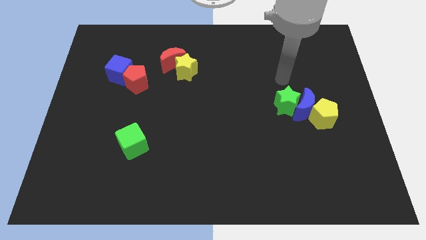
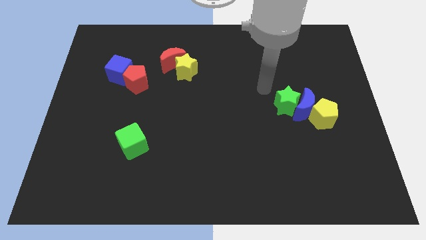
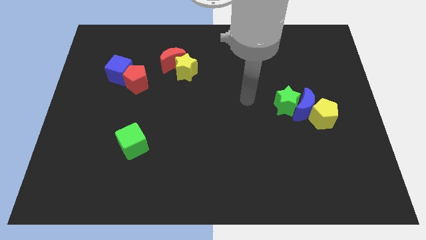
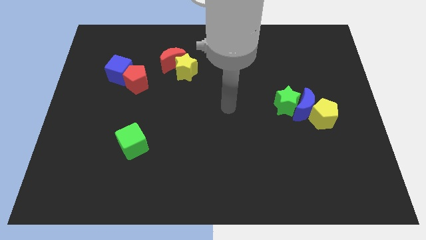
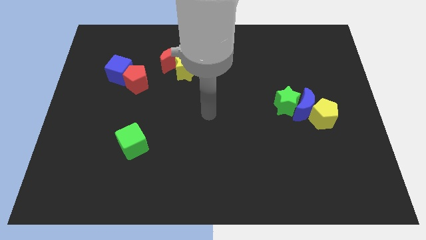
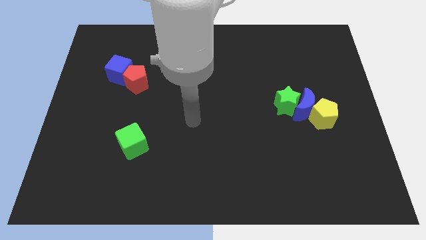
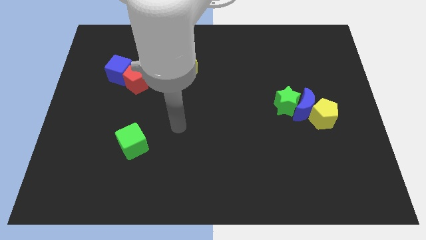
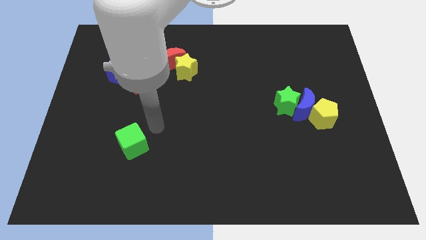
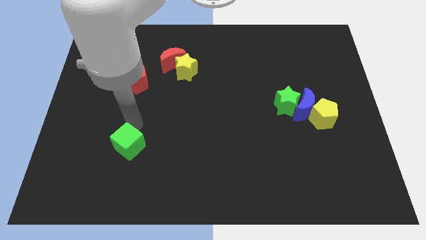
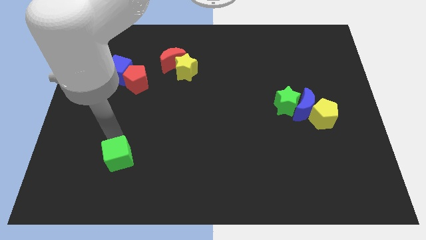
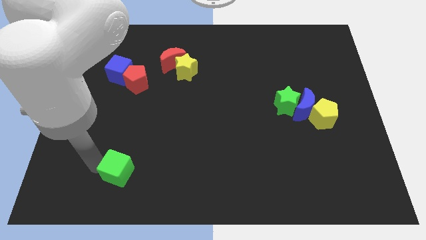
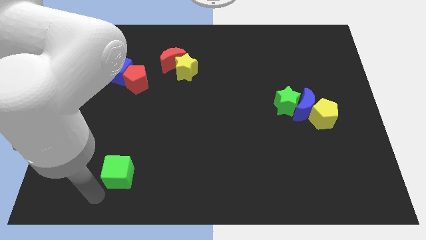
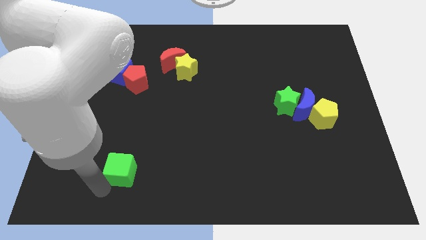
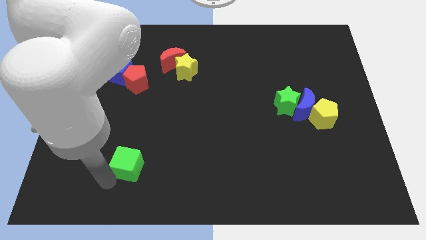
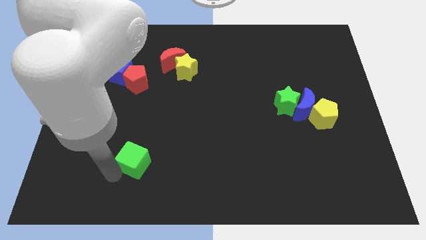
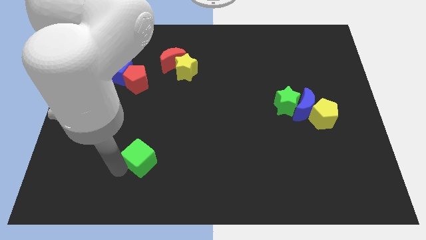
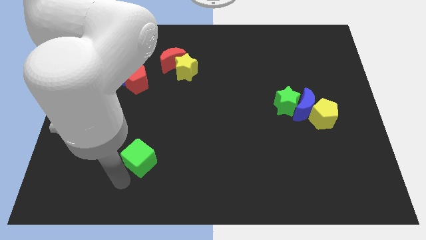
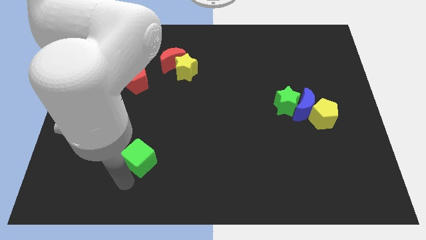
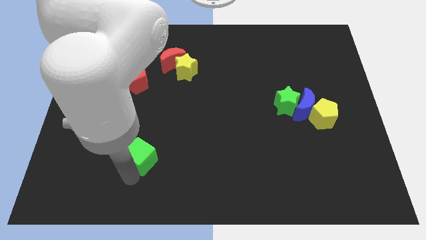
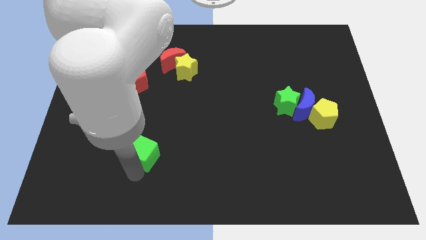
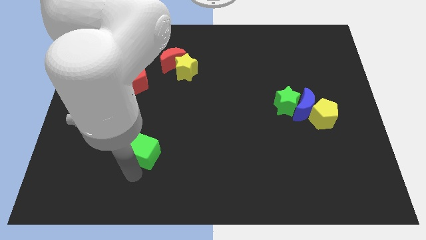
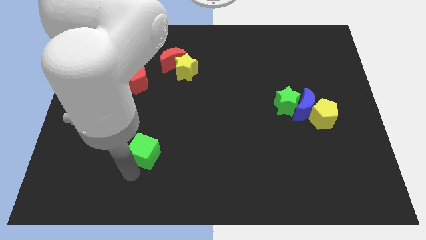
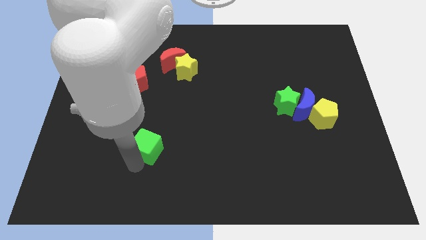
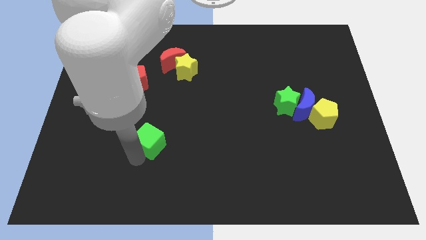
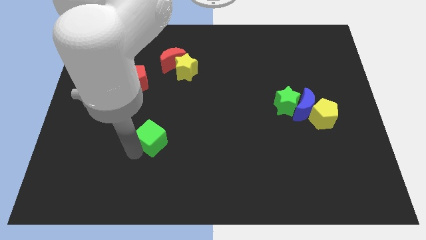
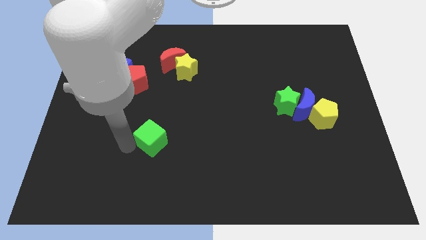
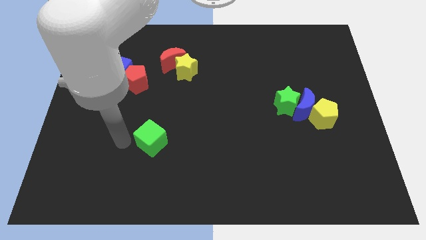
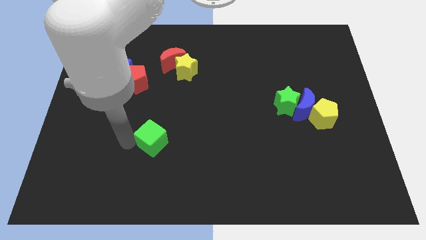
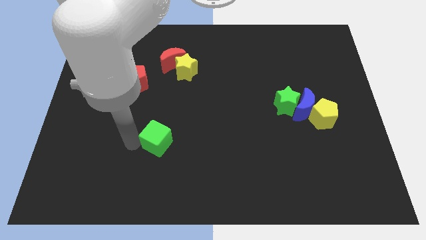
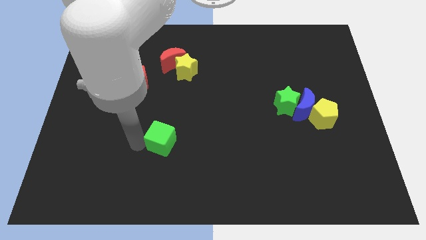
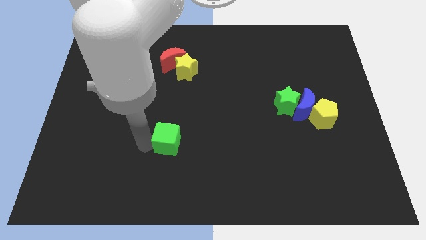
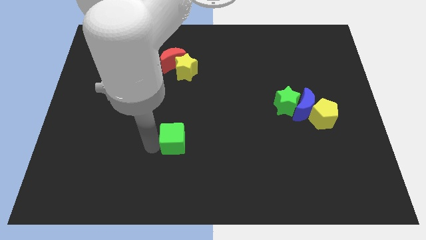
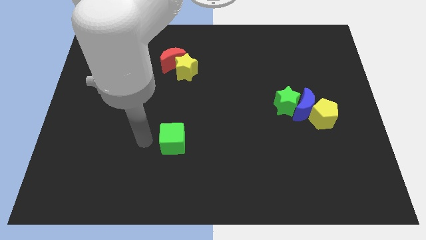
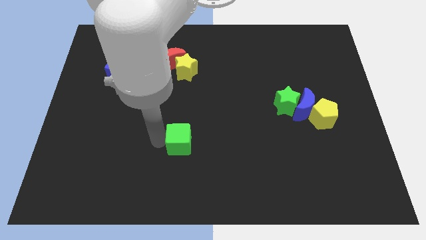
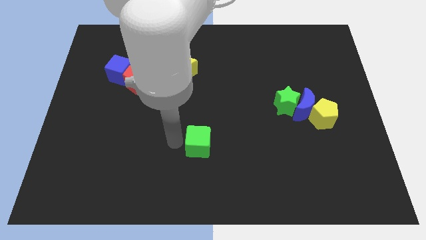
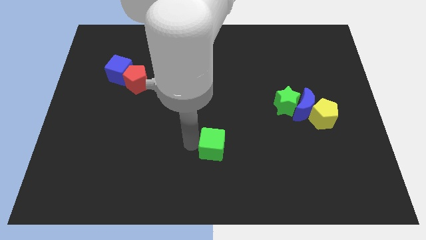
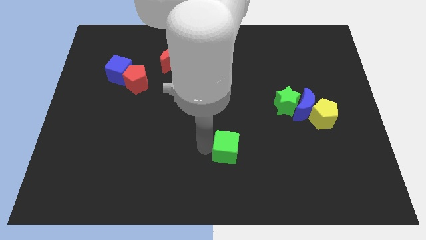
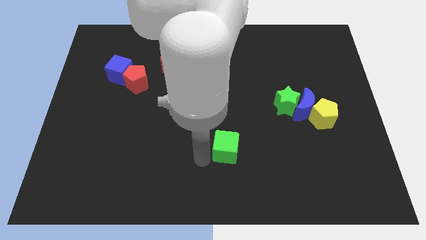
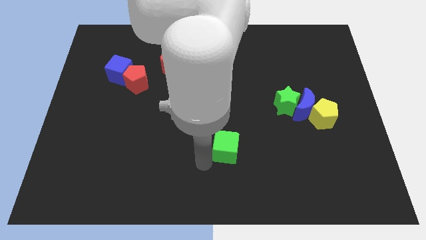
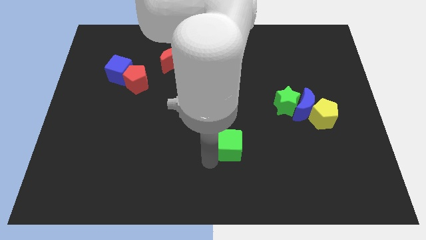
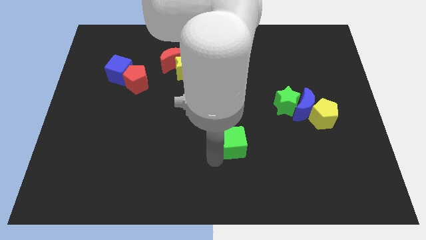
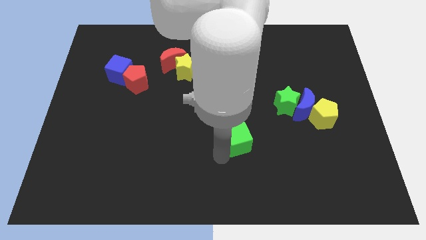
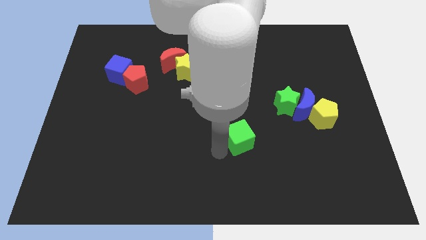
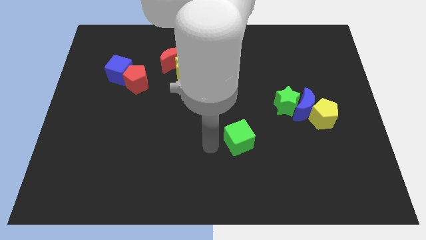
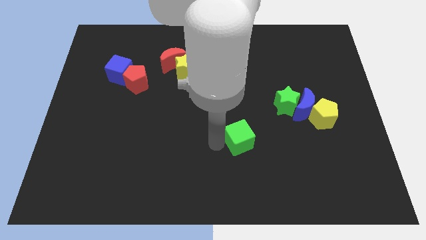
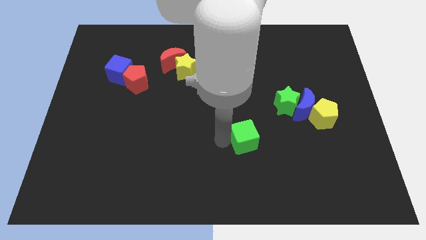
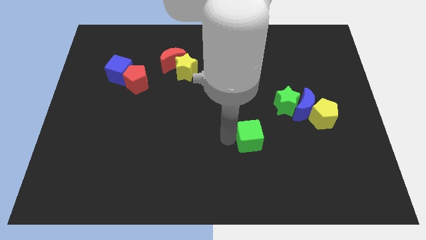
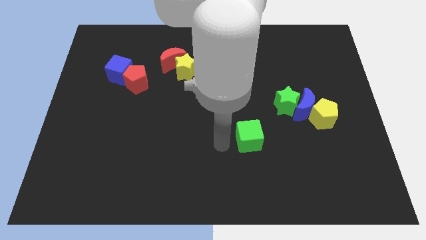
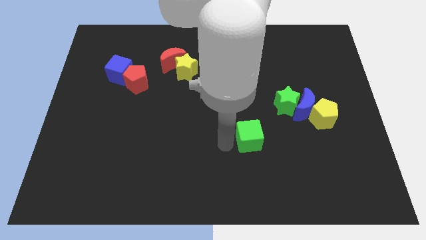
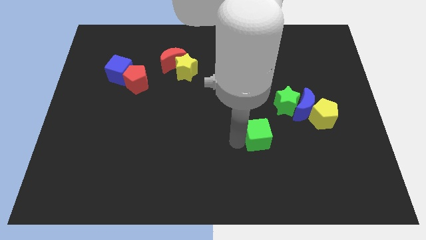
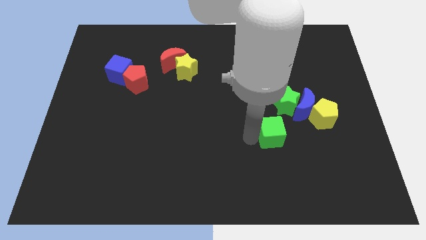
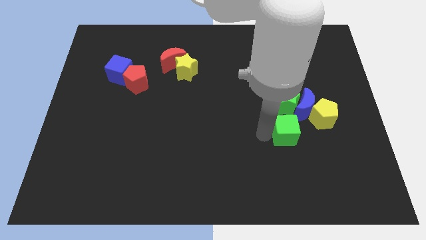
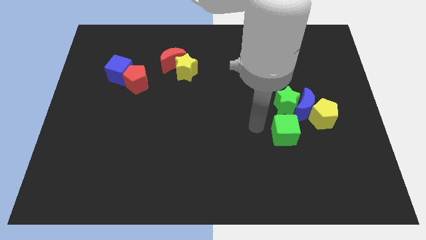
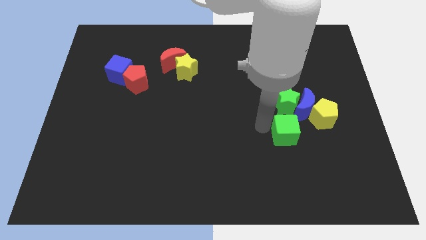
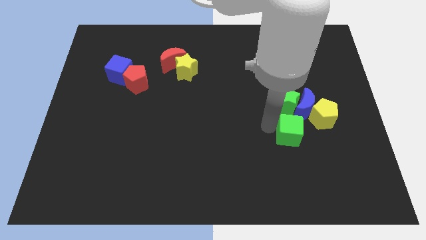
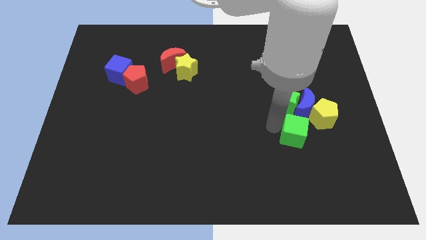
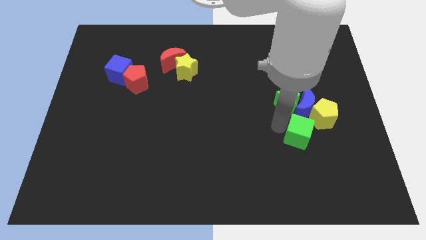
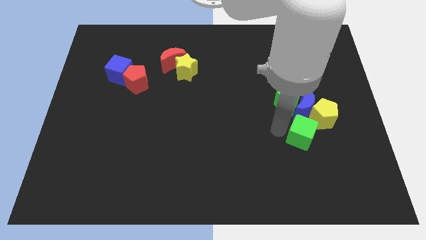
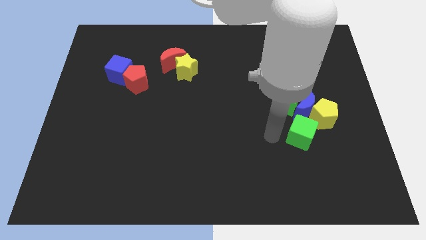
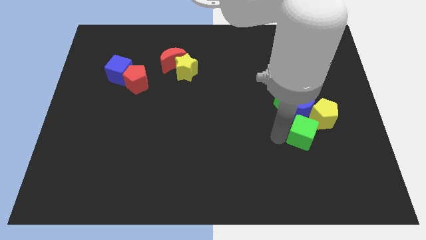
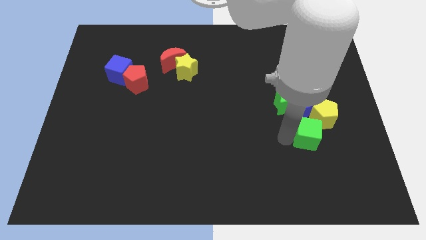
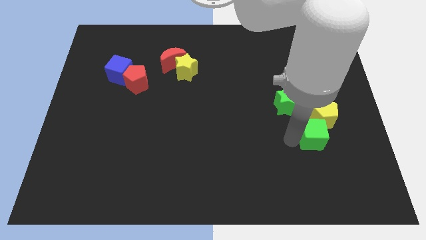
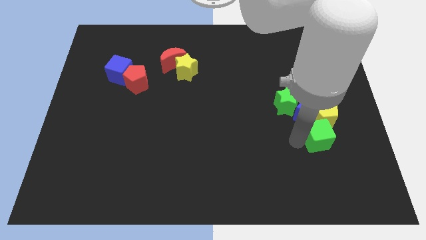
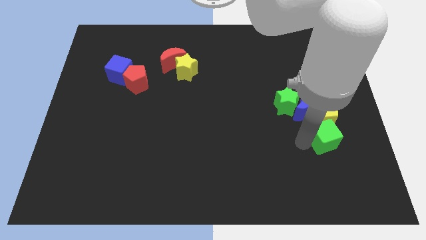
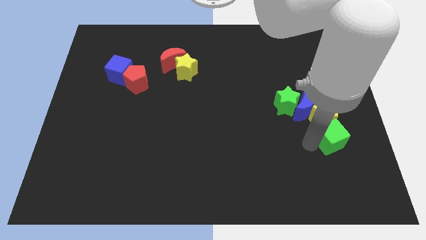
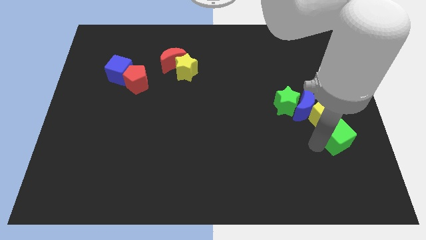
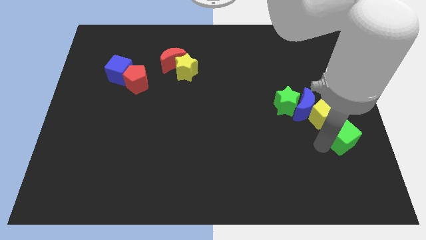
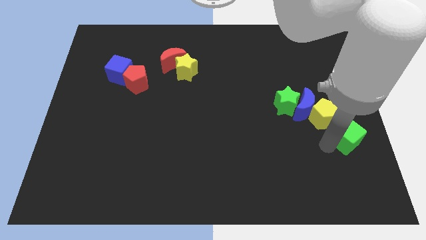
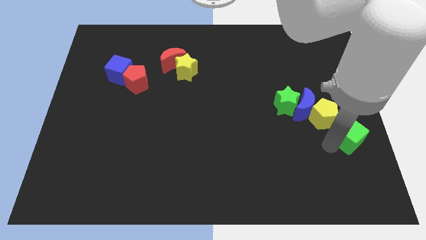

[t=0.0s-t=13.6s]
move the green cube to the right side of the board
